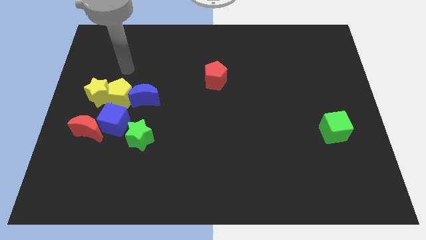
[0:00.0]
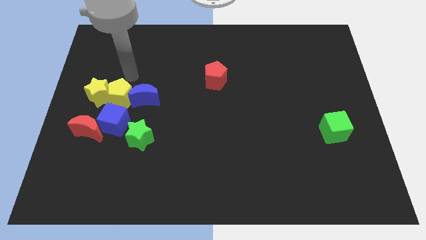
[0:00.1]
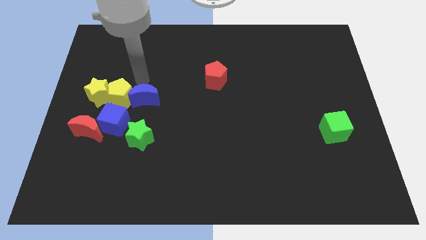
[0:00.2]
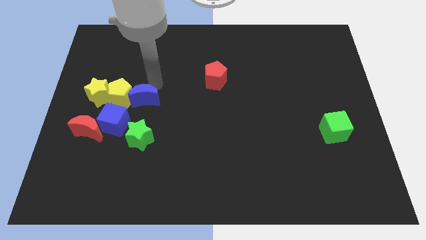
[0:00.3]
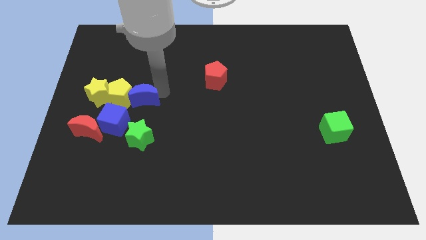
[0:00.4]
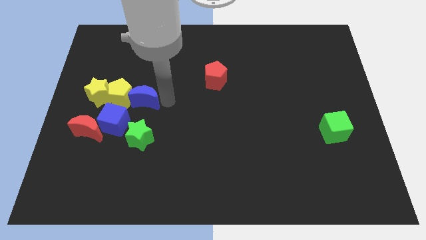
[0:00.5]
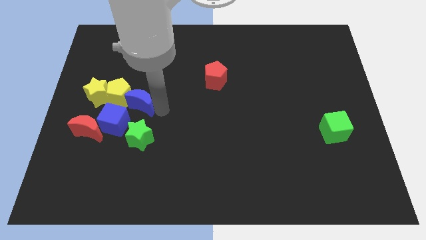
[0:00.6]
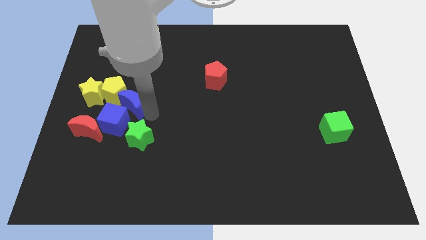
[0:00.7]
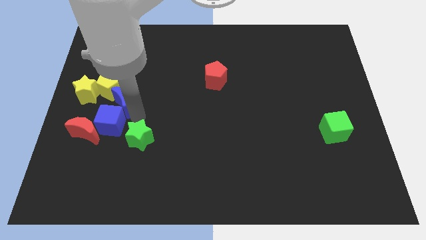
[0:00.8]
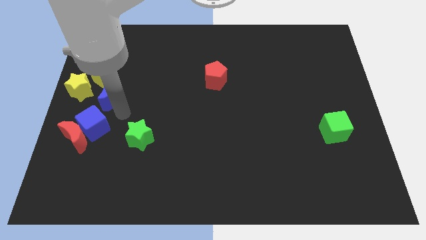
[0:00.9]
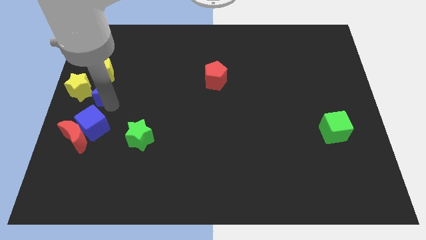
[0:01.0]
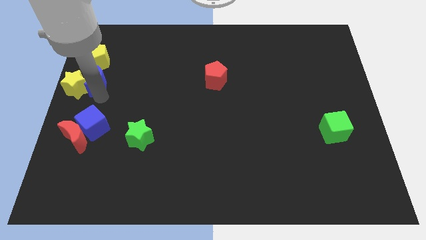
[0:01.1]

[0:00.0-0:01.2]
separate the yellow pentagon from the group of blocks

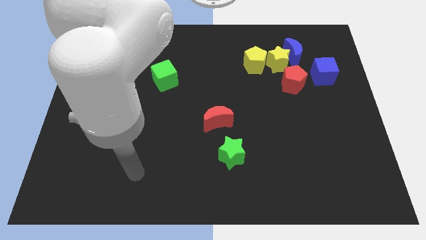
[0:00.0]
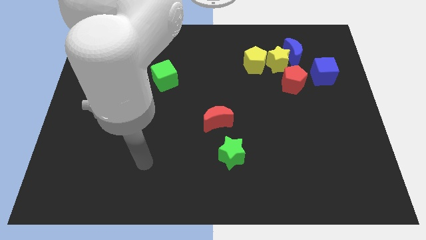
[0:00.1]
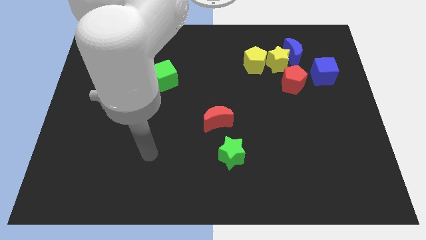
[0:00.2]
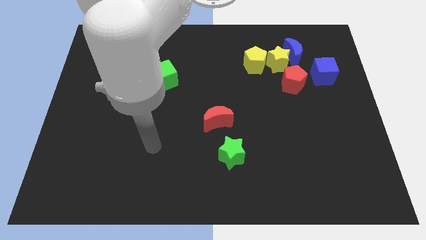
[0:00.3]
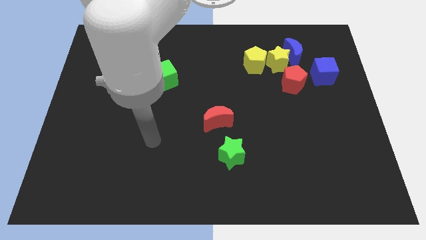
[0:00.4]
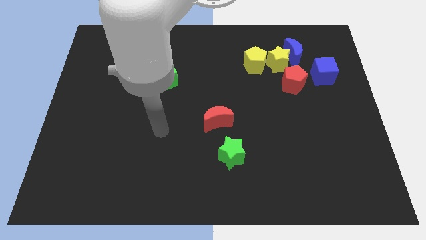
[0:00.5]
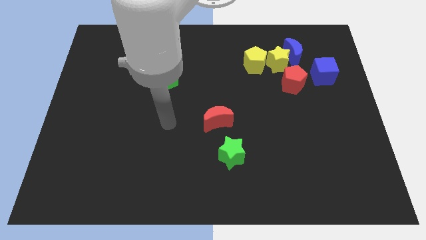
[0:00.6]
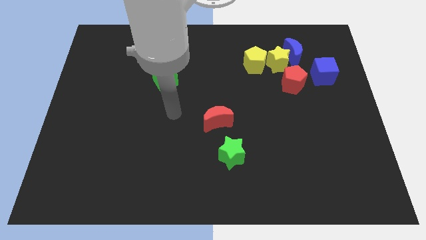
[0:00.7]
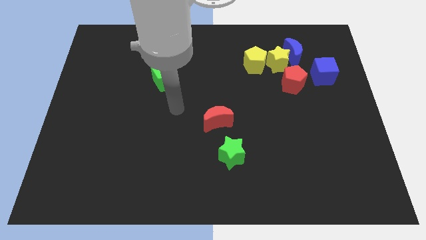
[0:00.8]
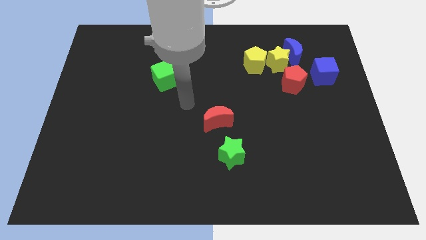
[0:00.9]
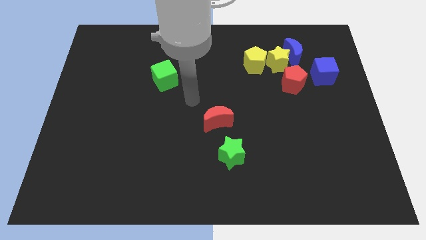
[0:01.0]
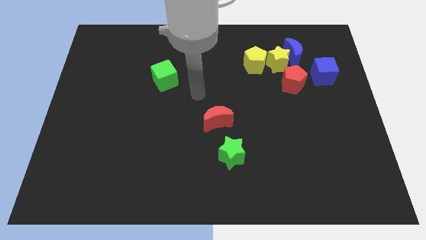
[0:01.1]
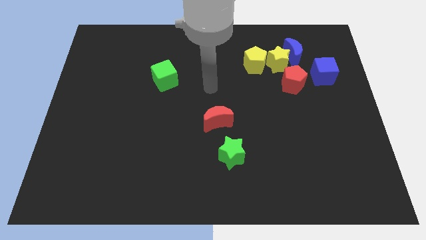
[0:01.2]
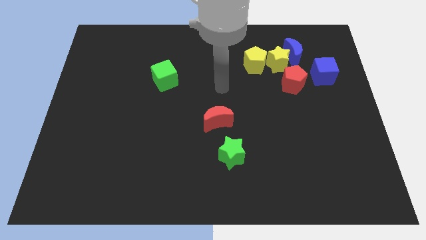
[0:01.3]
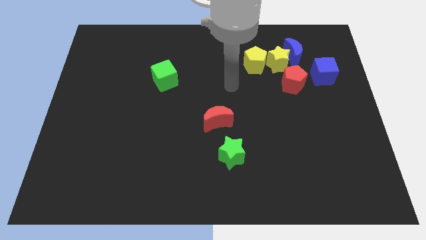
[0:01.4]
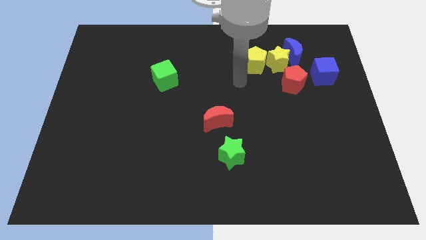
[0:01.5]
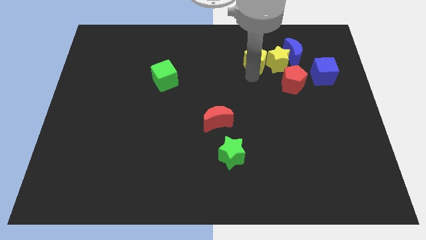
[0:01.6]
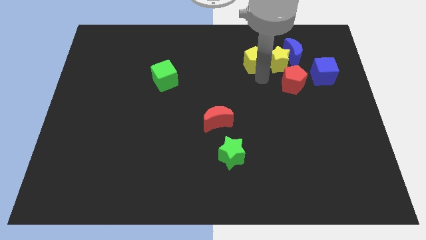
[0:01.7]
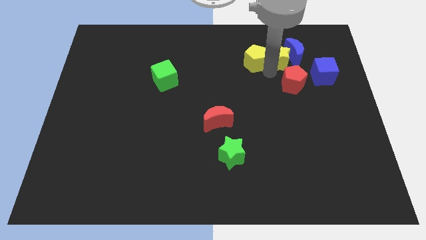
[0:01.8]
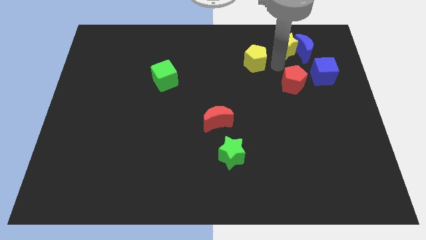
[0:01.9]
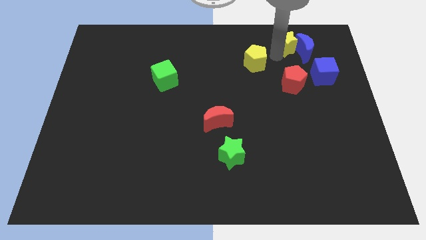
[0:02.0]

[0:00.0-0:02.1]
pull the yellow pentagon apart from the yellow star

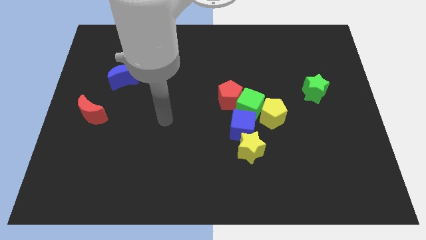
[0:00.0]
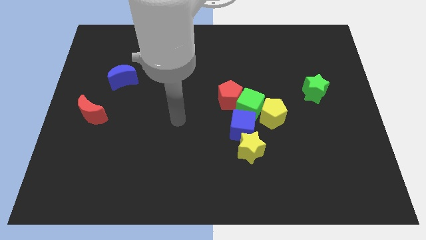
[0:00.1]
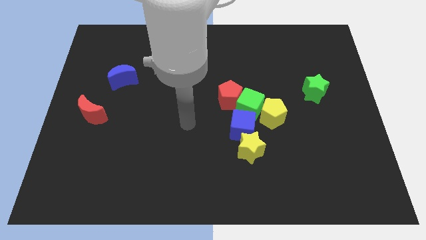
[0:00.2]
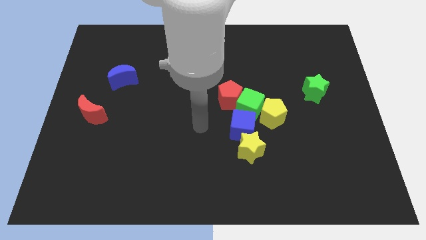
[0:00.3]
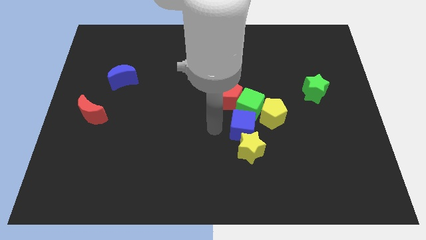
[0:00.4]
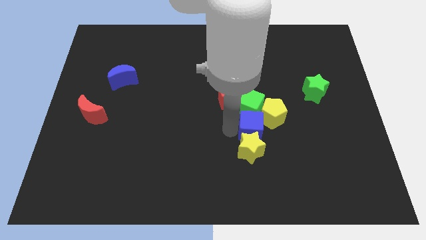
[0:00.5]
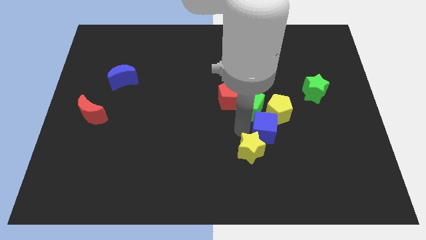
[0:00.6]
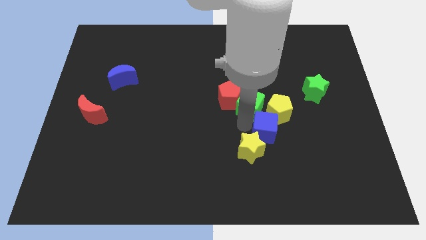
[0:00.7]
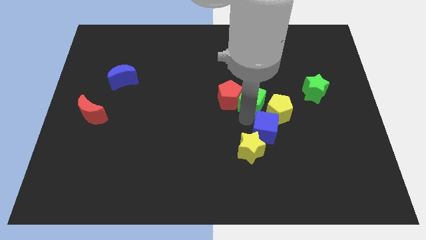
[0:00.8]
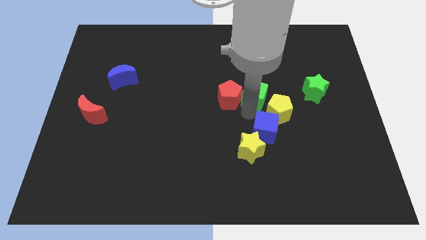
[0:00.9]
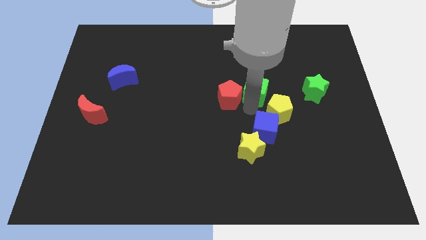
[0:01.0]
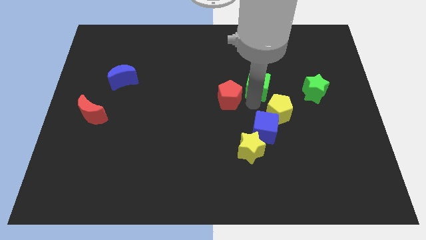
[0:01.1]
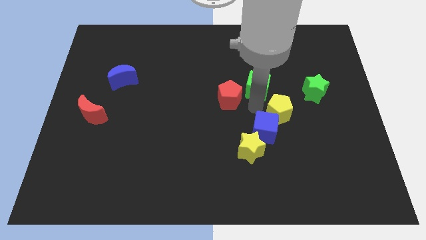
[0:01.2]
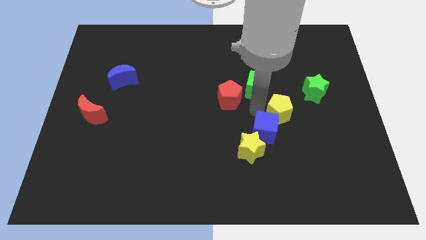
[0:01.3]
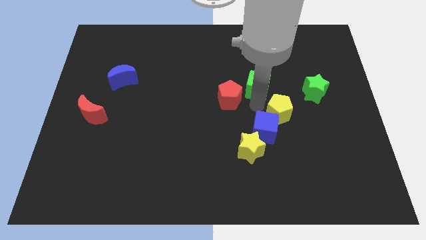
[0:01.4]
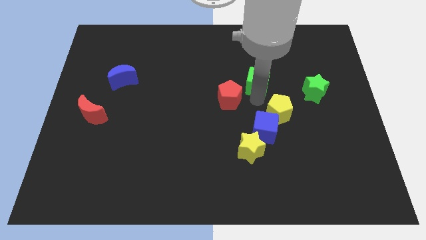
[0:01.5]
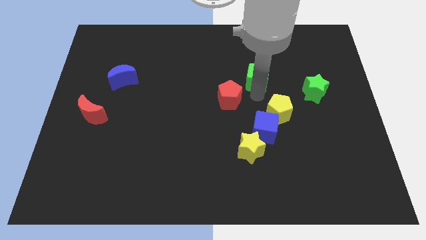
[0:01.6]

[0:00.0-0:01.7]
pull the green cube apart from the group

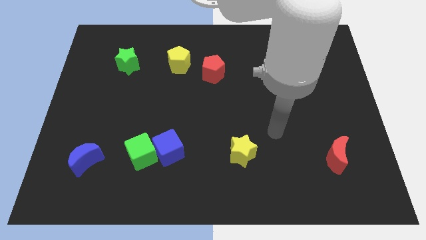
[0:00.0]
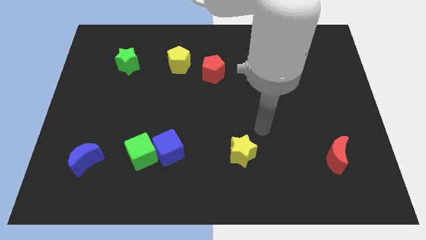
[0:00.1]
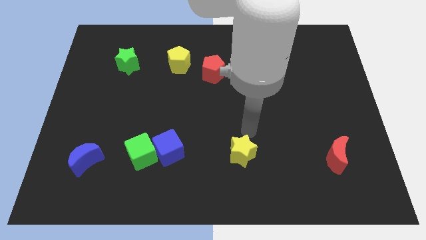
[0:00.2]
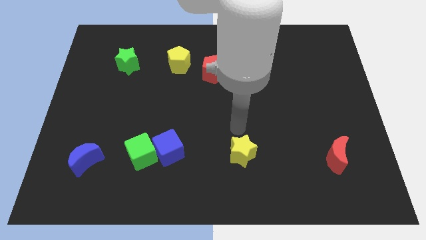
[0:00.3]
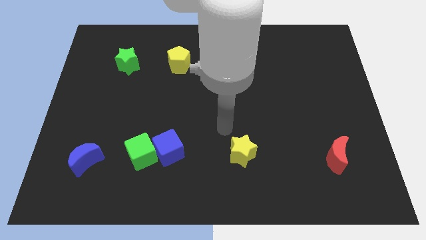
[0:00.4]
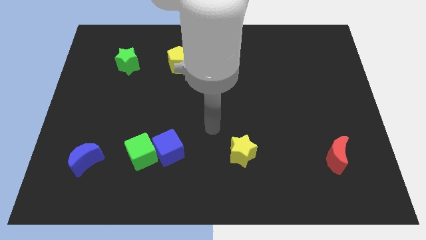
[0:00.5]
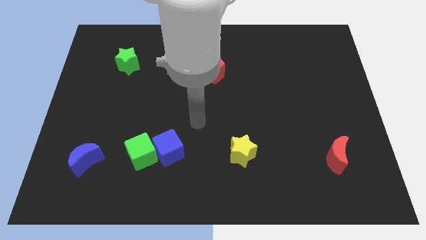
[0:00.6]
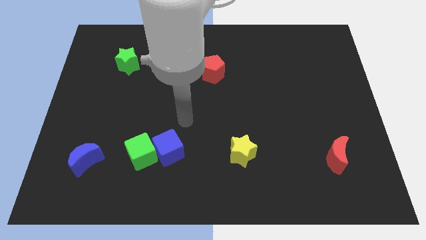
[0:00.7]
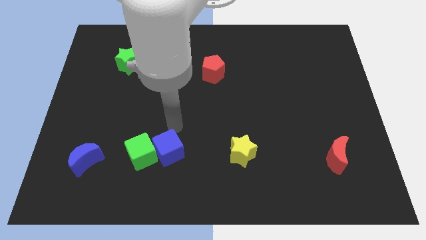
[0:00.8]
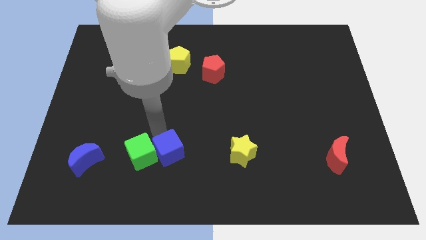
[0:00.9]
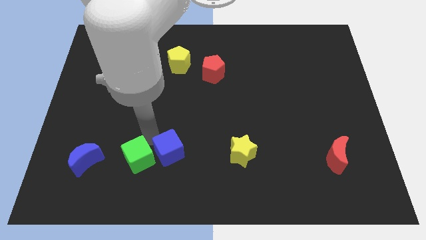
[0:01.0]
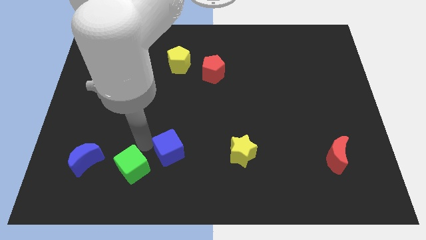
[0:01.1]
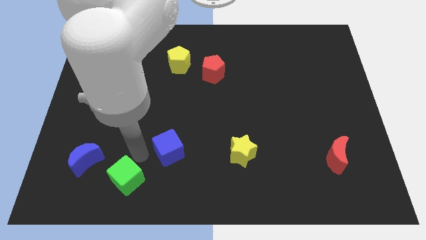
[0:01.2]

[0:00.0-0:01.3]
pull the blue cube apart from the green cube

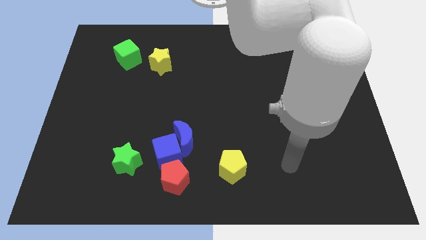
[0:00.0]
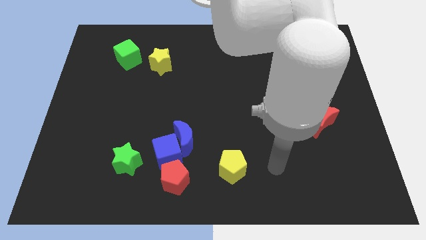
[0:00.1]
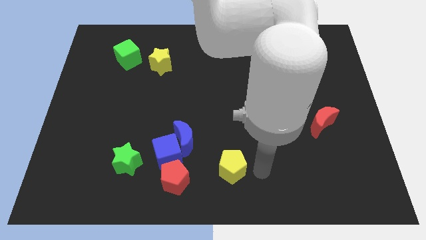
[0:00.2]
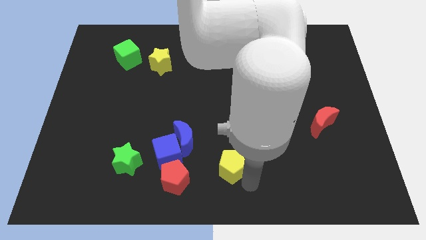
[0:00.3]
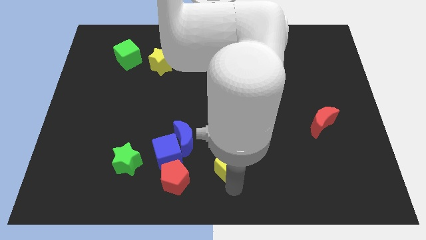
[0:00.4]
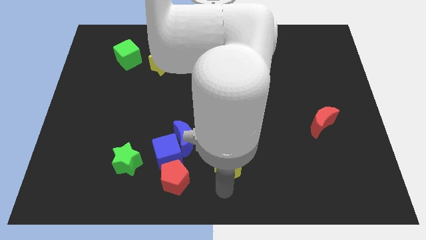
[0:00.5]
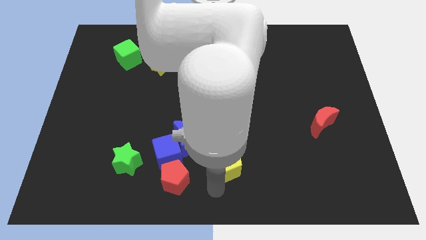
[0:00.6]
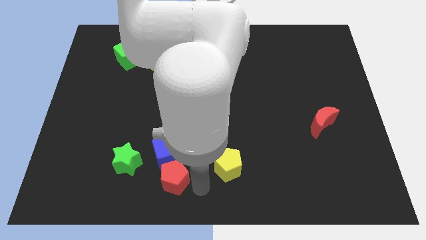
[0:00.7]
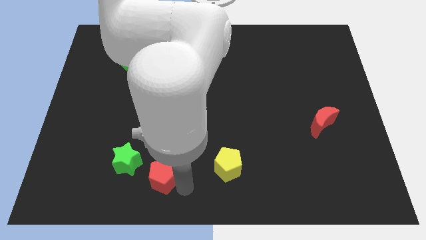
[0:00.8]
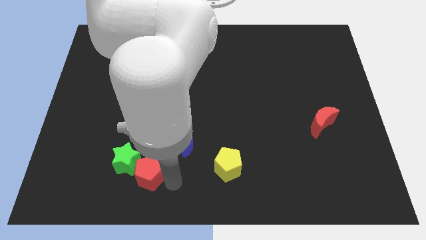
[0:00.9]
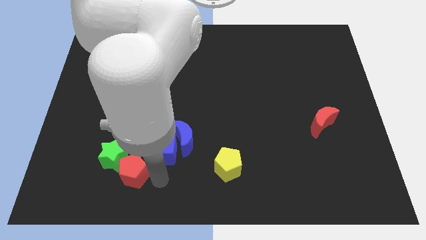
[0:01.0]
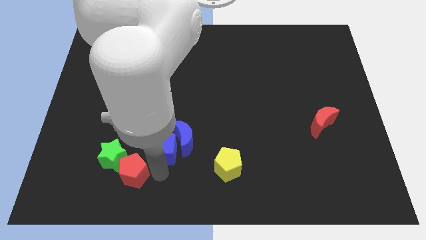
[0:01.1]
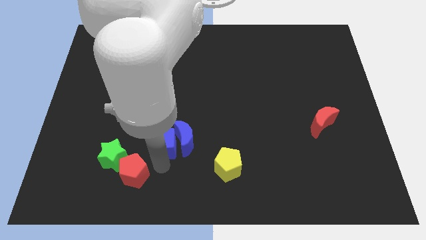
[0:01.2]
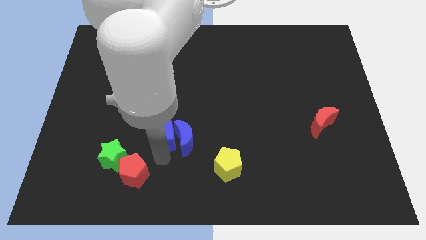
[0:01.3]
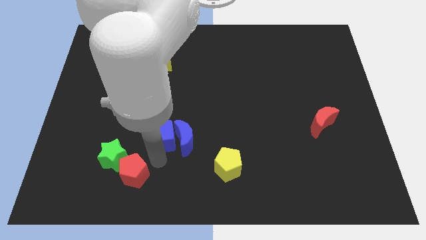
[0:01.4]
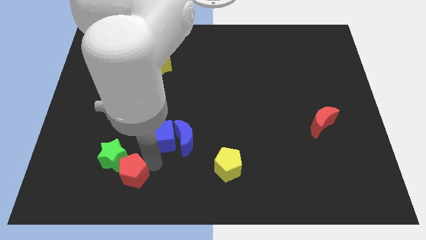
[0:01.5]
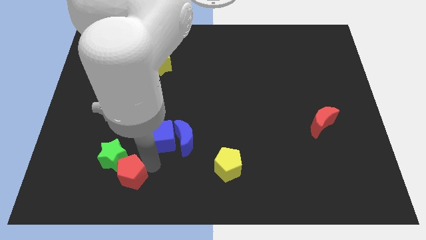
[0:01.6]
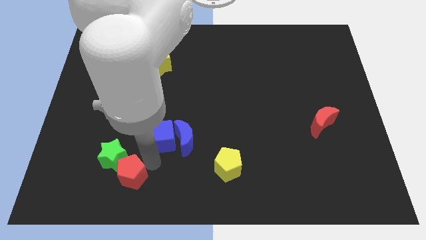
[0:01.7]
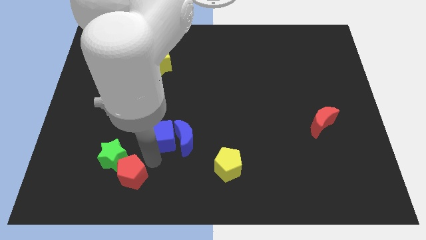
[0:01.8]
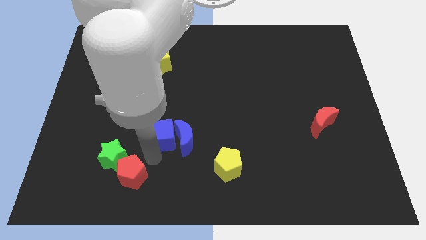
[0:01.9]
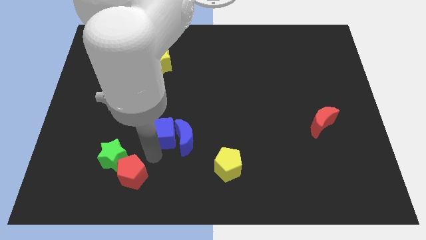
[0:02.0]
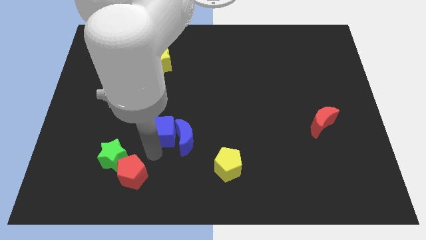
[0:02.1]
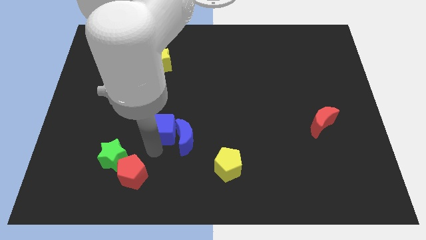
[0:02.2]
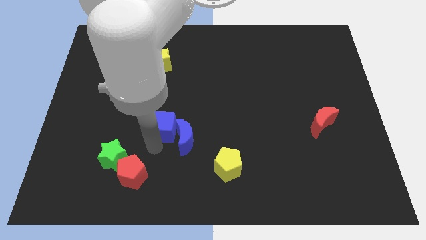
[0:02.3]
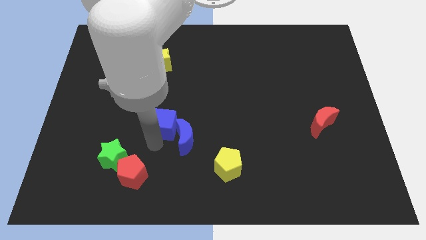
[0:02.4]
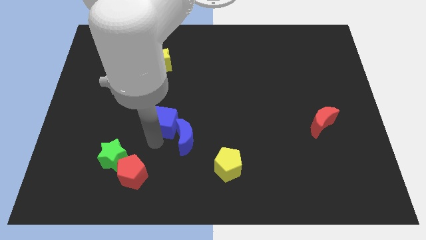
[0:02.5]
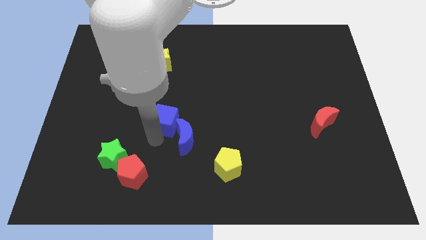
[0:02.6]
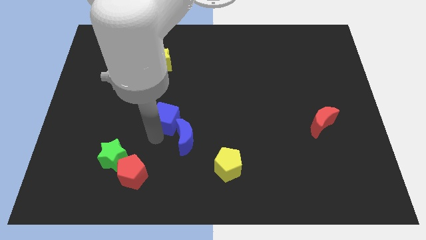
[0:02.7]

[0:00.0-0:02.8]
separate the blue cube from the blue moon, red pentagon, and green star

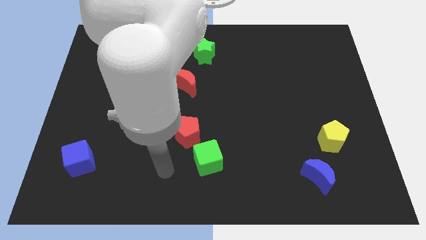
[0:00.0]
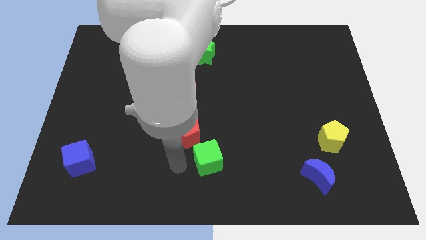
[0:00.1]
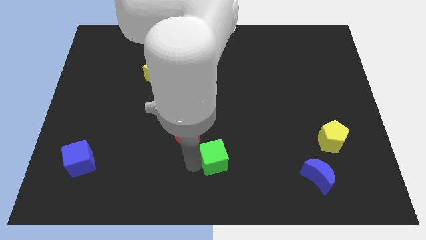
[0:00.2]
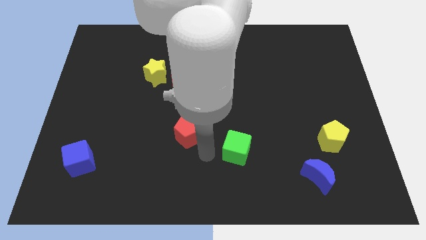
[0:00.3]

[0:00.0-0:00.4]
separate the red pentagon from the green cube
